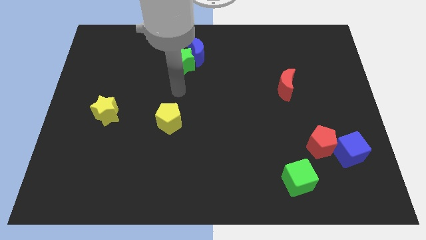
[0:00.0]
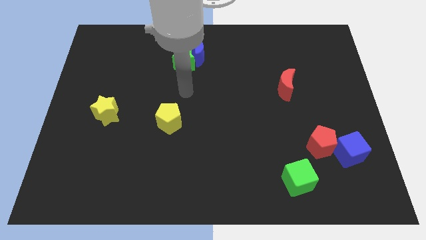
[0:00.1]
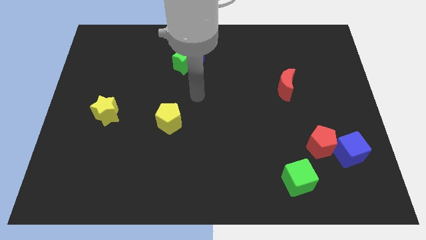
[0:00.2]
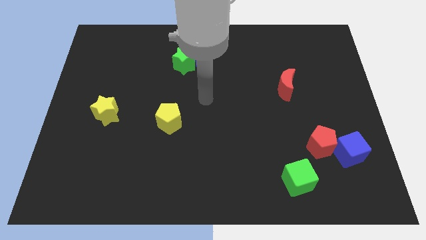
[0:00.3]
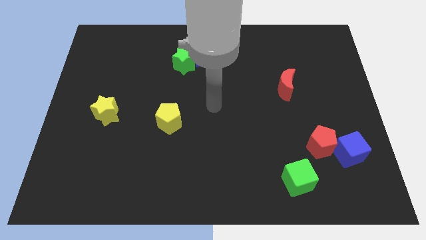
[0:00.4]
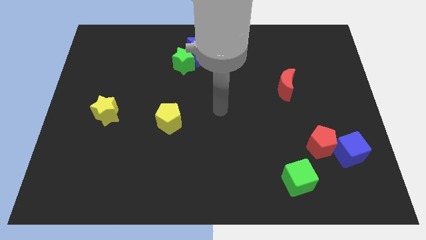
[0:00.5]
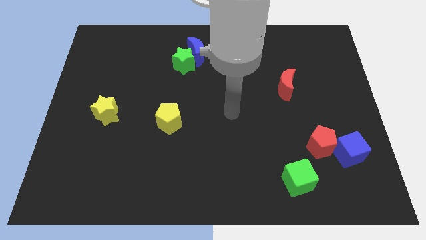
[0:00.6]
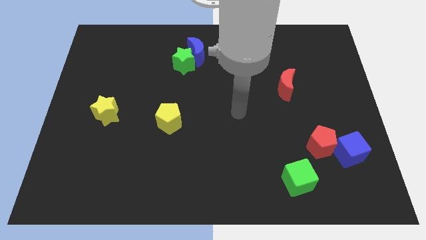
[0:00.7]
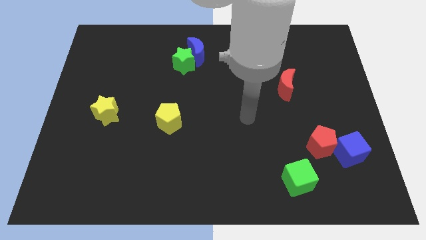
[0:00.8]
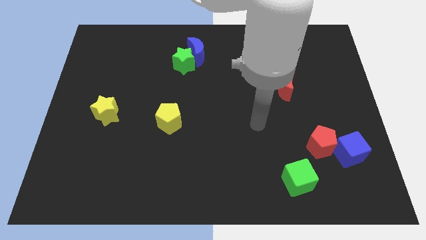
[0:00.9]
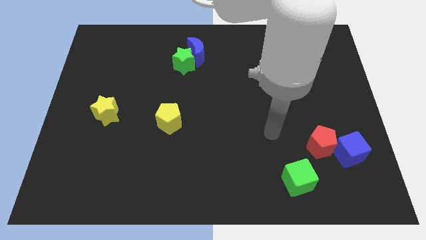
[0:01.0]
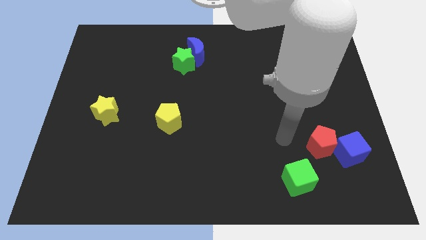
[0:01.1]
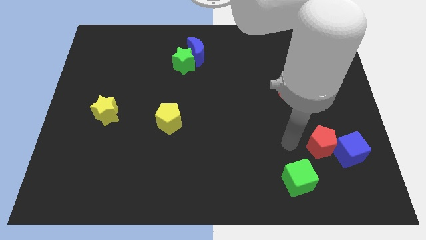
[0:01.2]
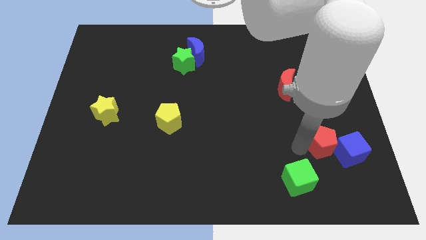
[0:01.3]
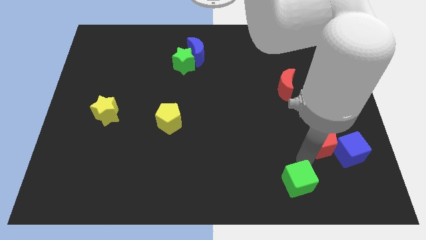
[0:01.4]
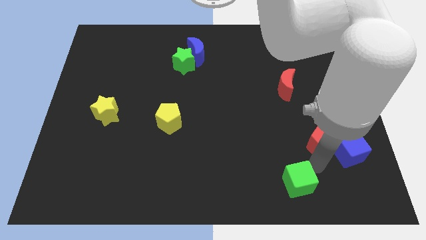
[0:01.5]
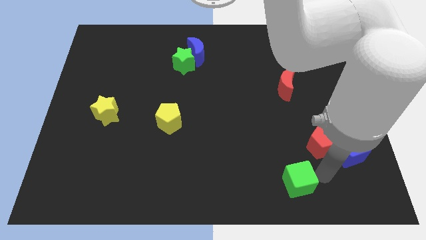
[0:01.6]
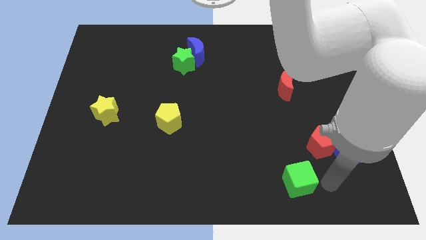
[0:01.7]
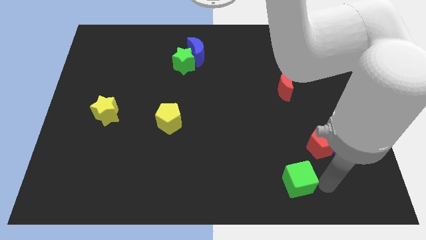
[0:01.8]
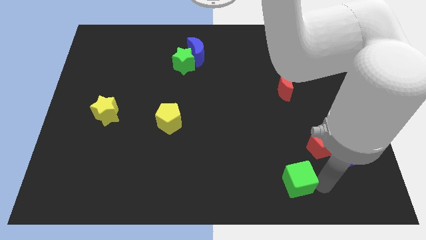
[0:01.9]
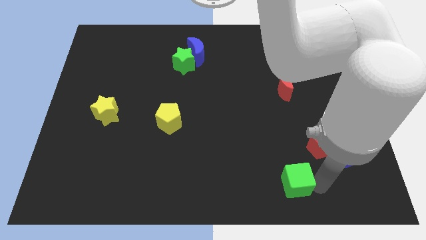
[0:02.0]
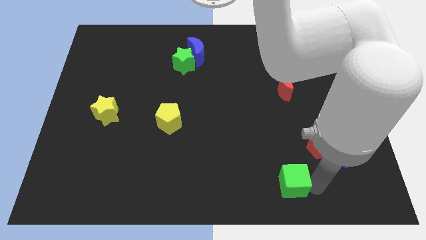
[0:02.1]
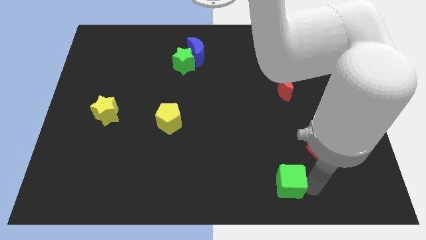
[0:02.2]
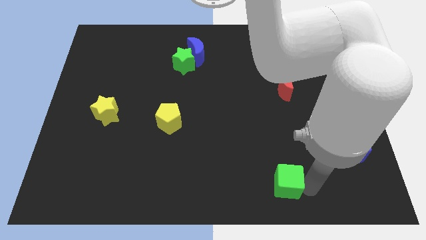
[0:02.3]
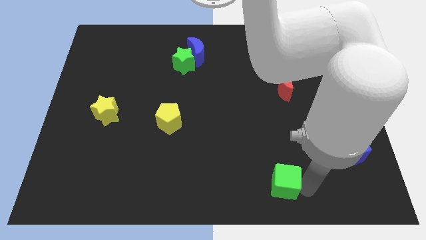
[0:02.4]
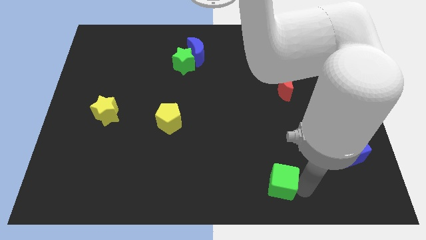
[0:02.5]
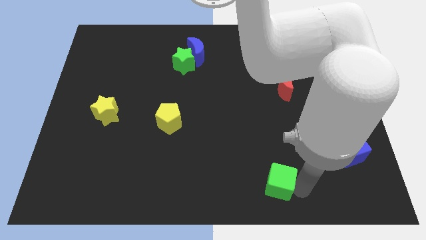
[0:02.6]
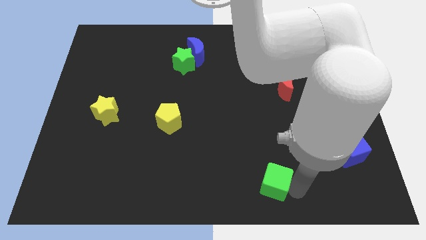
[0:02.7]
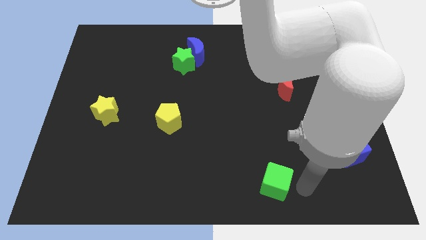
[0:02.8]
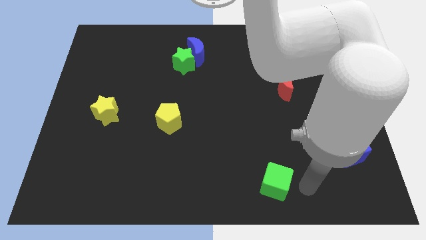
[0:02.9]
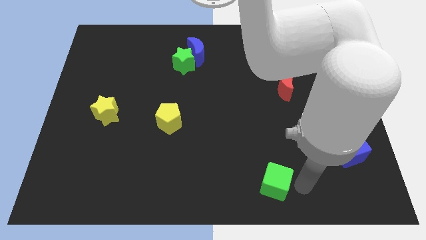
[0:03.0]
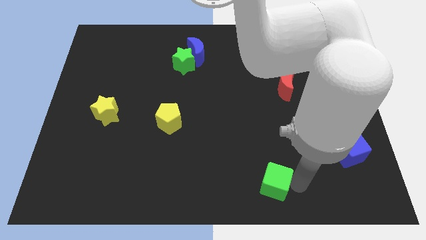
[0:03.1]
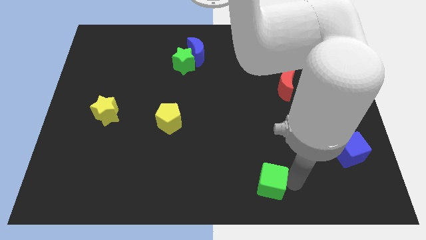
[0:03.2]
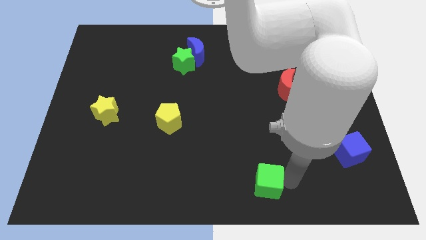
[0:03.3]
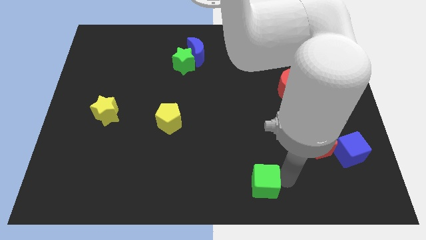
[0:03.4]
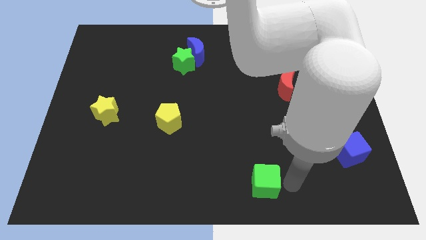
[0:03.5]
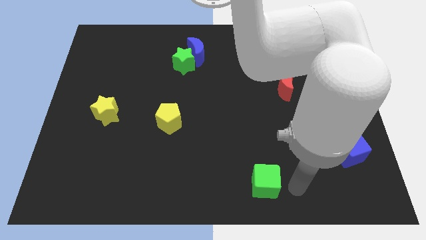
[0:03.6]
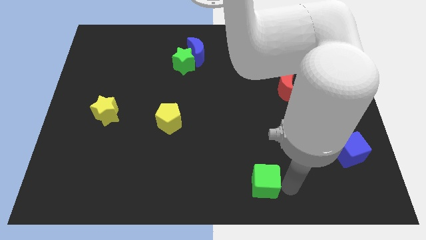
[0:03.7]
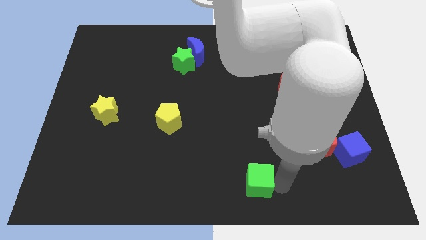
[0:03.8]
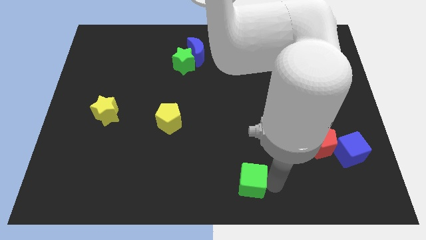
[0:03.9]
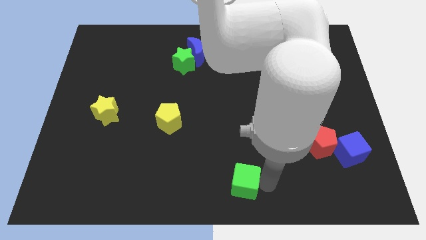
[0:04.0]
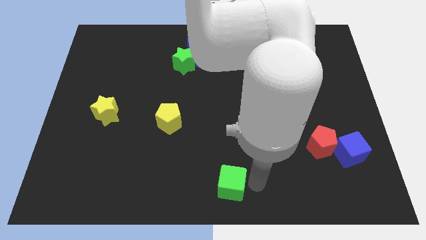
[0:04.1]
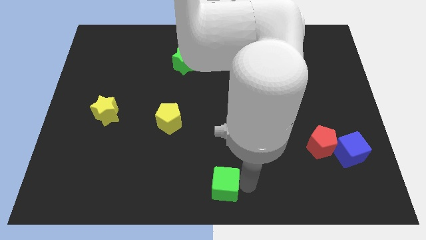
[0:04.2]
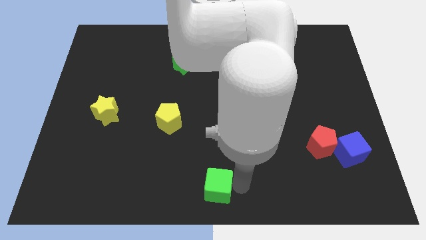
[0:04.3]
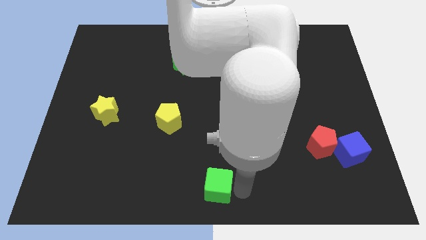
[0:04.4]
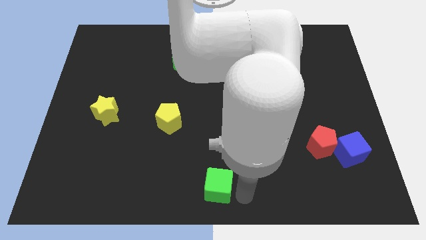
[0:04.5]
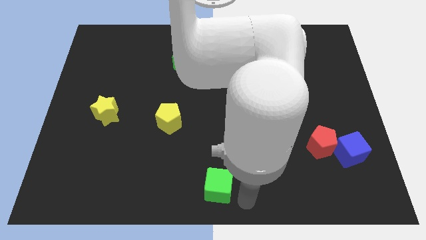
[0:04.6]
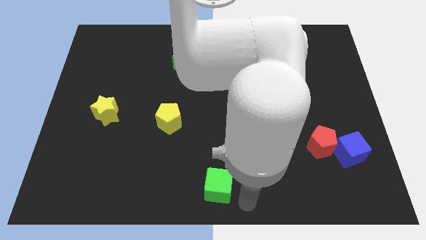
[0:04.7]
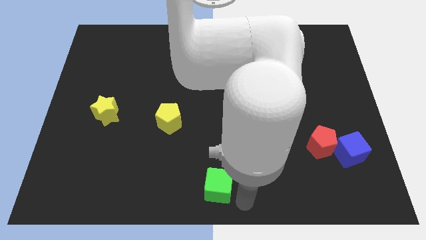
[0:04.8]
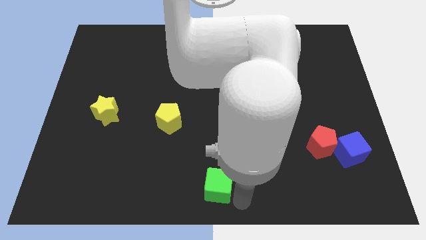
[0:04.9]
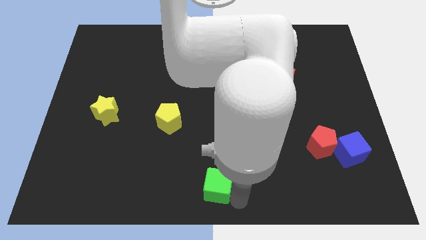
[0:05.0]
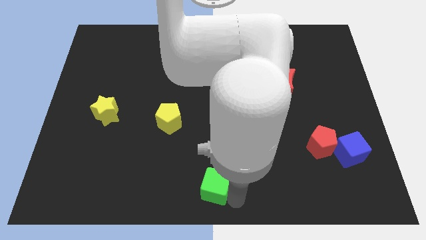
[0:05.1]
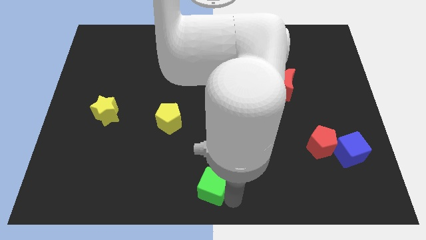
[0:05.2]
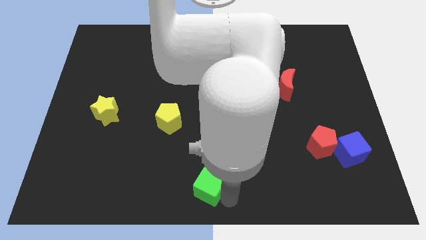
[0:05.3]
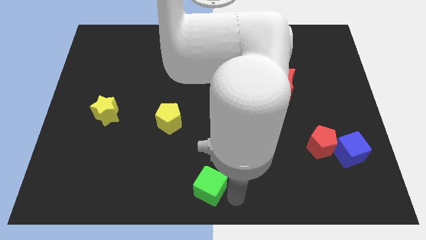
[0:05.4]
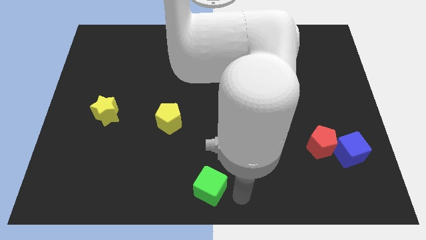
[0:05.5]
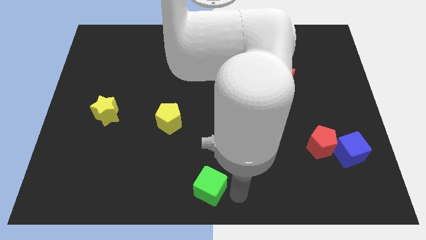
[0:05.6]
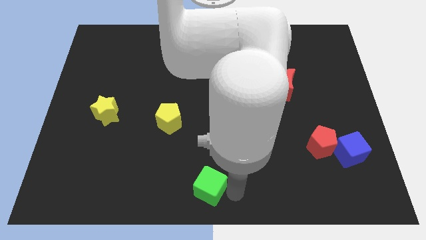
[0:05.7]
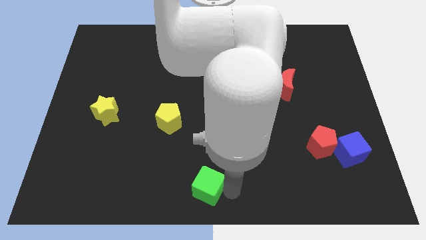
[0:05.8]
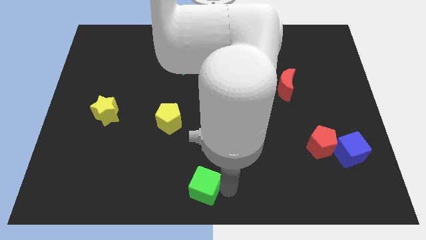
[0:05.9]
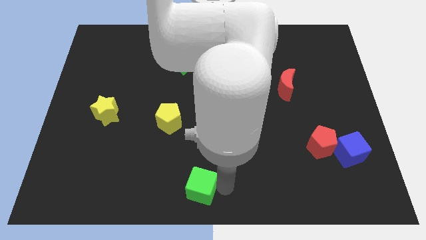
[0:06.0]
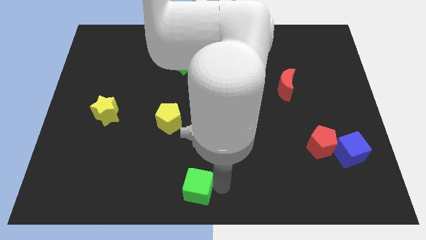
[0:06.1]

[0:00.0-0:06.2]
push the green cube to the left

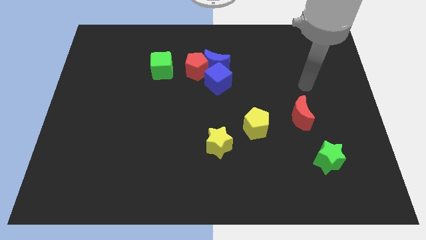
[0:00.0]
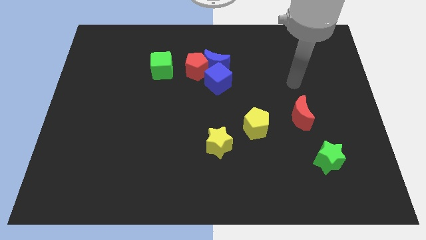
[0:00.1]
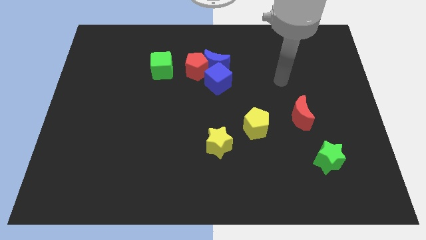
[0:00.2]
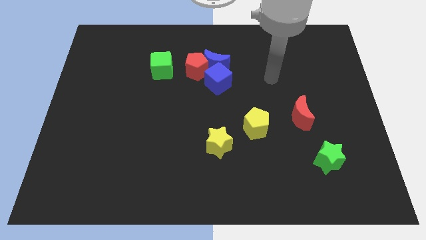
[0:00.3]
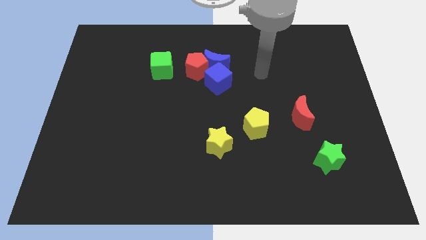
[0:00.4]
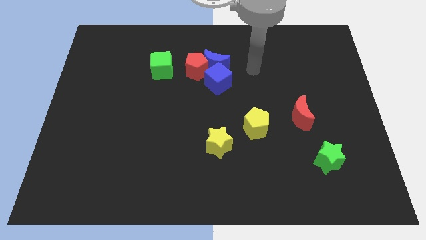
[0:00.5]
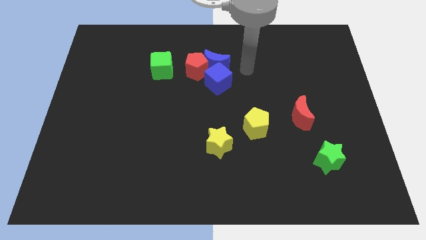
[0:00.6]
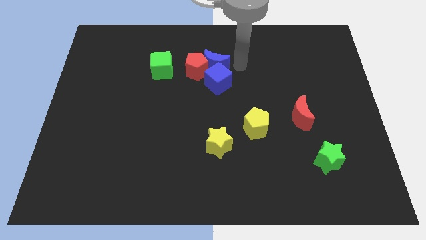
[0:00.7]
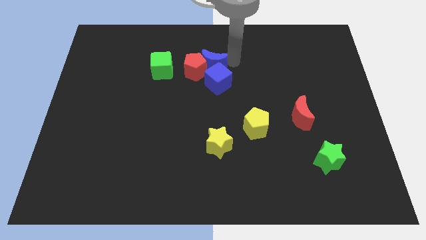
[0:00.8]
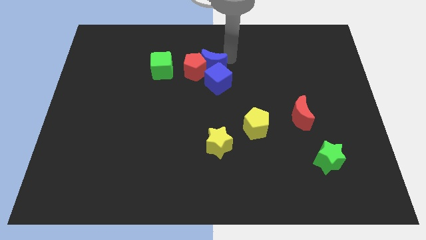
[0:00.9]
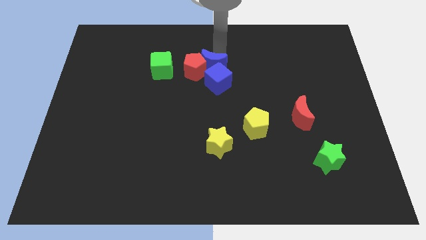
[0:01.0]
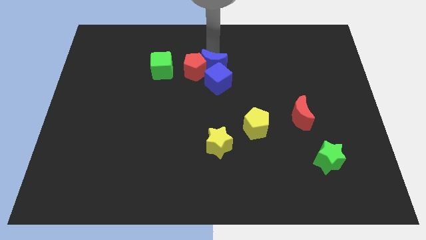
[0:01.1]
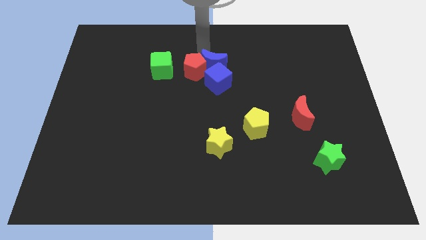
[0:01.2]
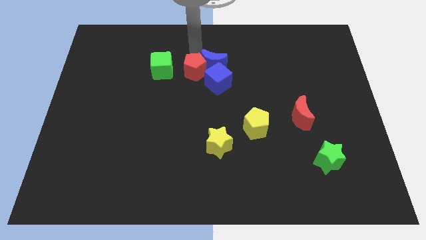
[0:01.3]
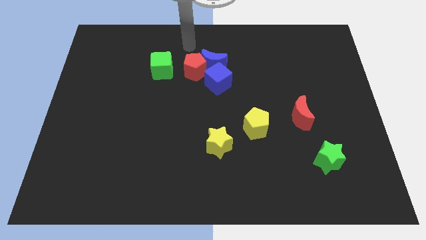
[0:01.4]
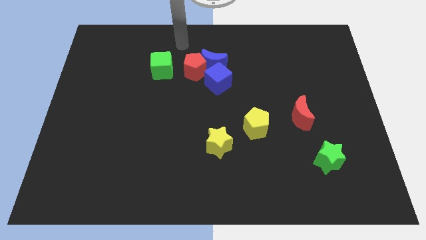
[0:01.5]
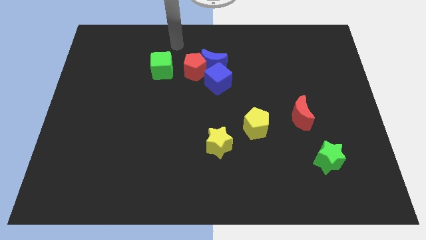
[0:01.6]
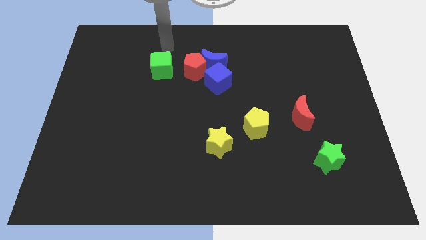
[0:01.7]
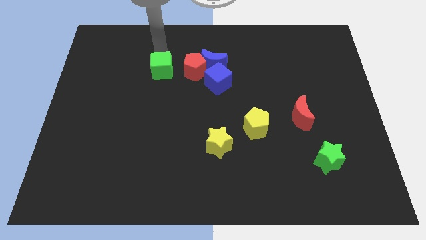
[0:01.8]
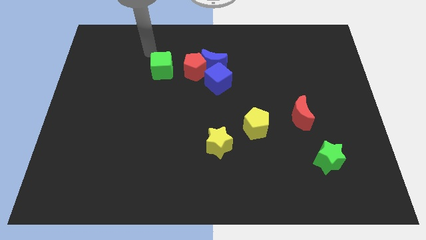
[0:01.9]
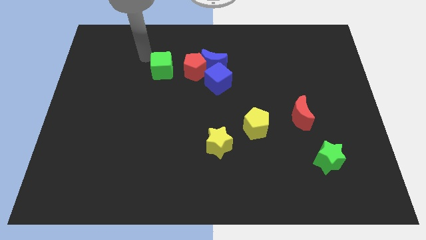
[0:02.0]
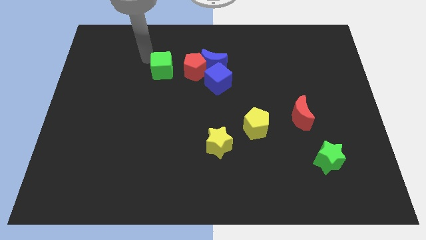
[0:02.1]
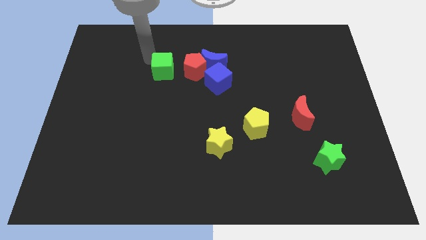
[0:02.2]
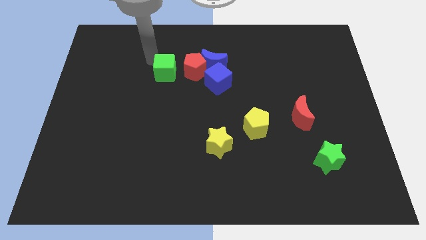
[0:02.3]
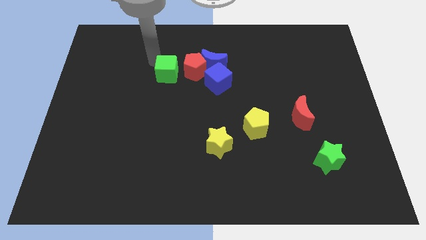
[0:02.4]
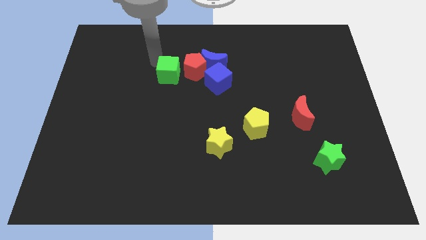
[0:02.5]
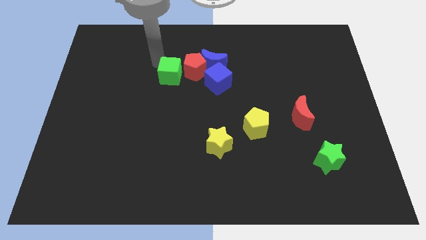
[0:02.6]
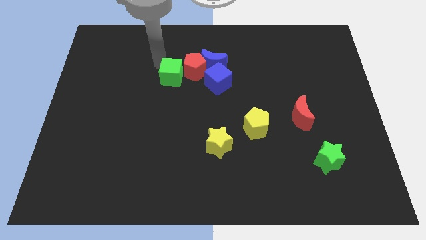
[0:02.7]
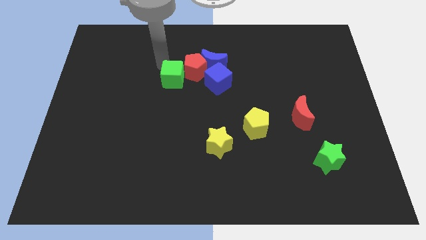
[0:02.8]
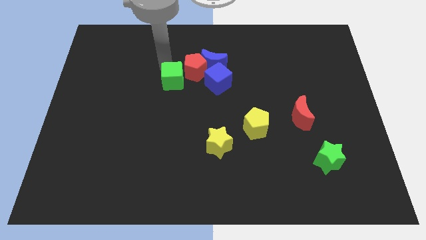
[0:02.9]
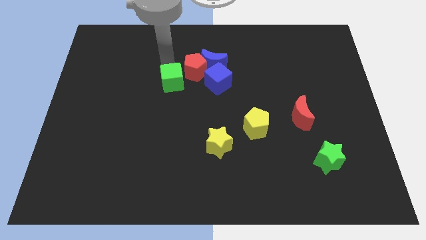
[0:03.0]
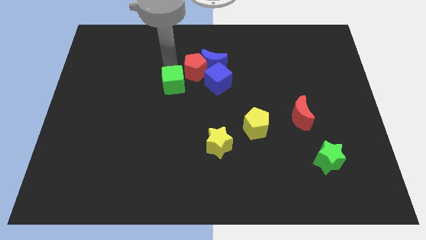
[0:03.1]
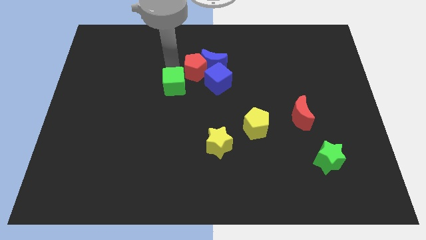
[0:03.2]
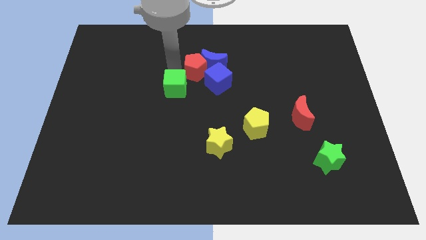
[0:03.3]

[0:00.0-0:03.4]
slightly slide the green cube diagonally down and to the right
